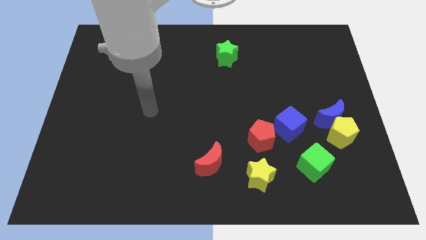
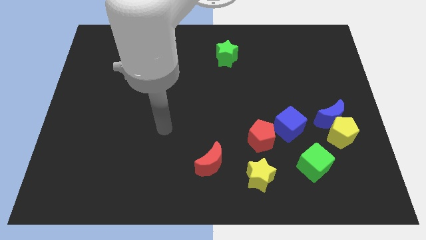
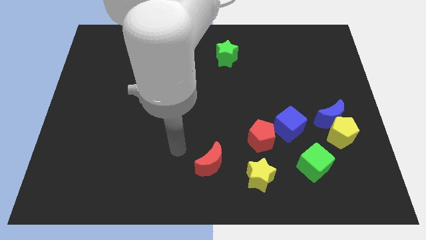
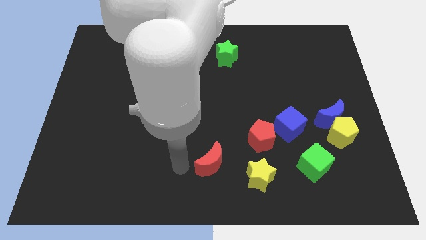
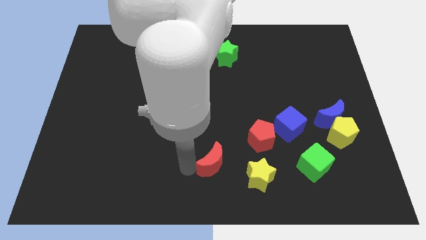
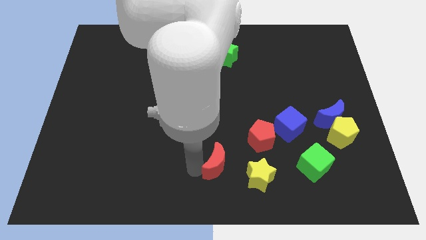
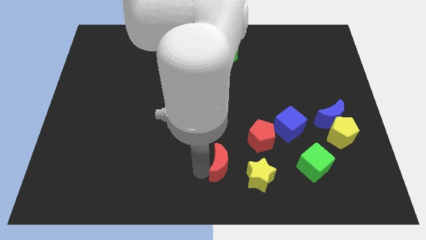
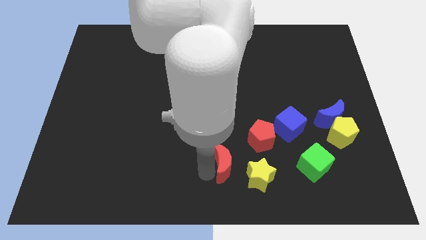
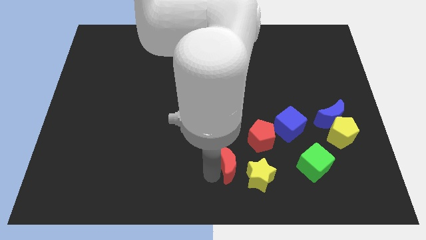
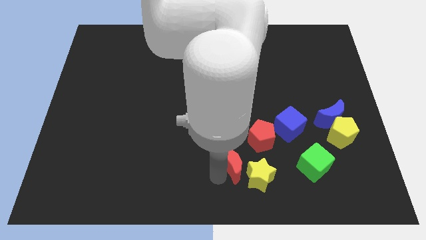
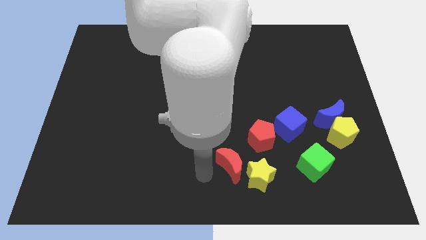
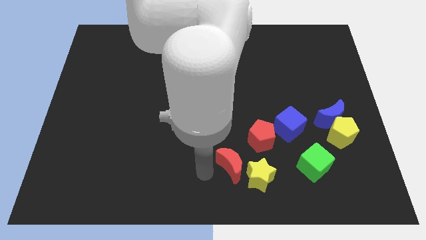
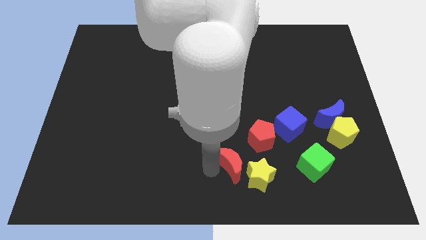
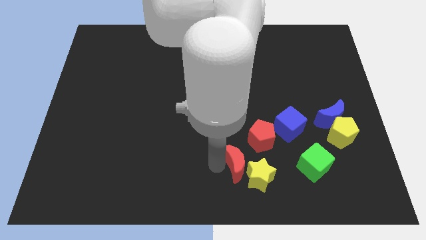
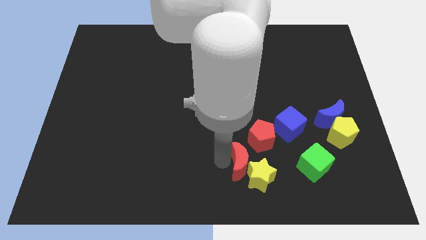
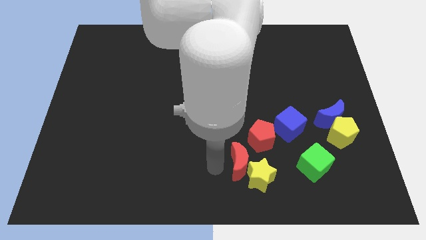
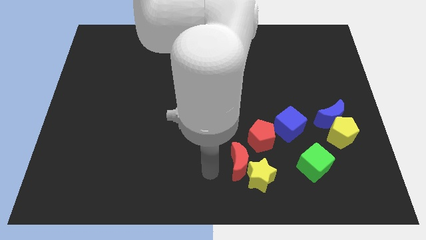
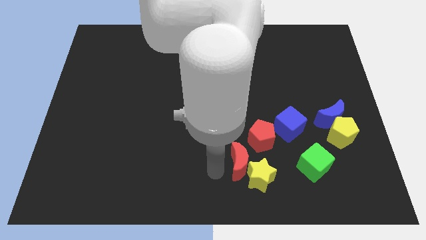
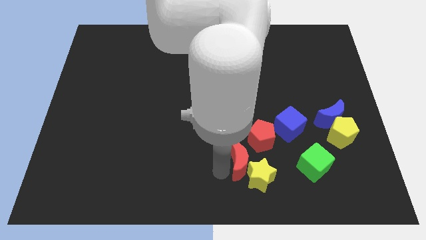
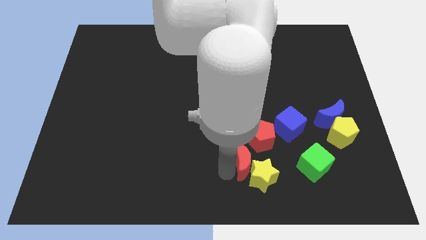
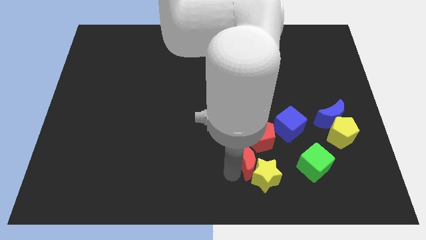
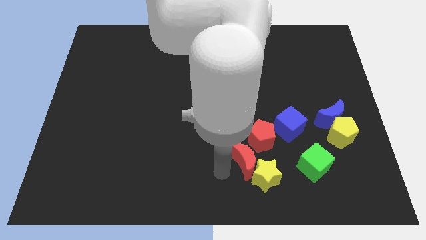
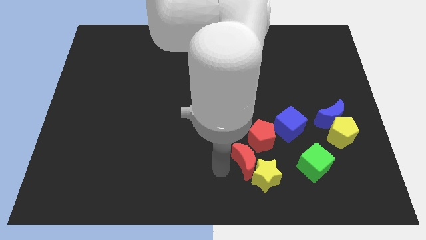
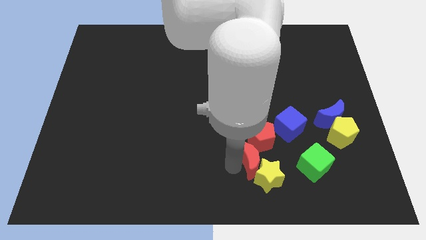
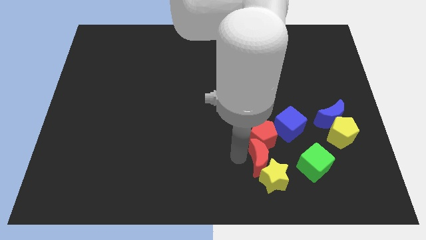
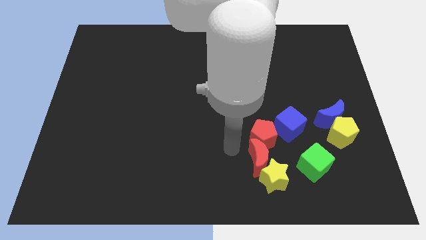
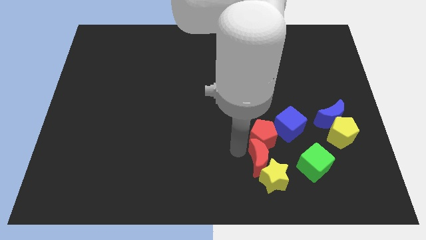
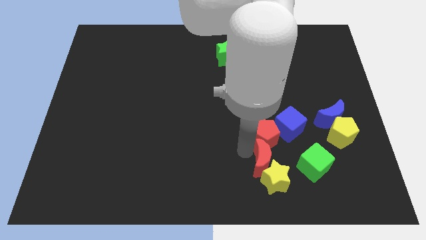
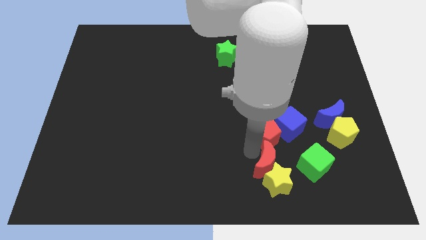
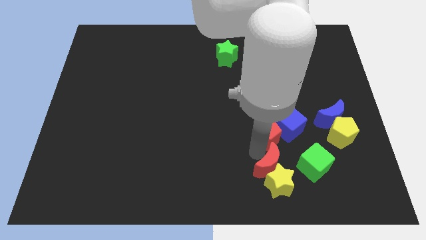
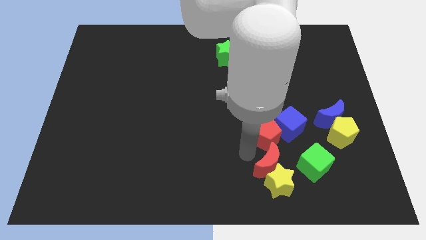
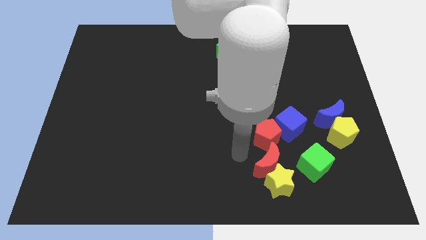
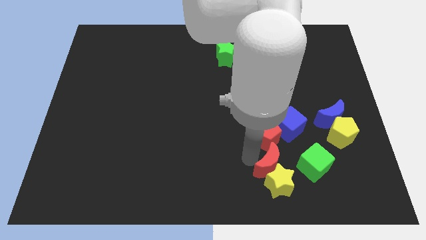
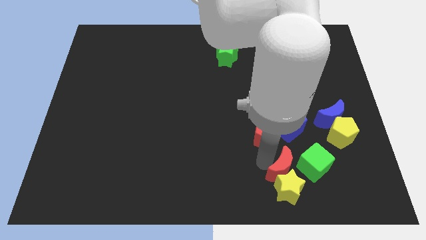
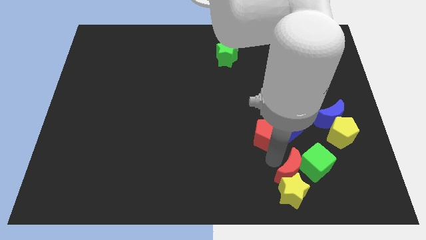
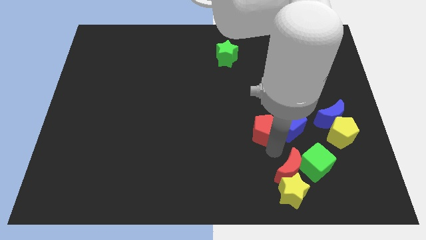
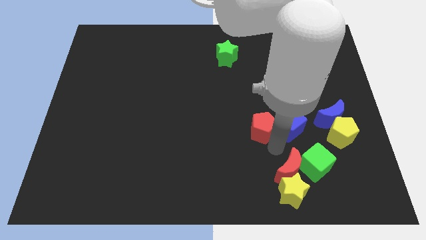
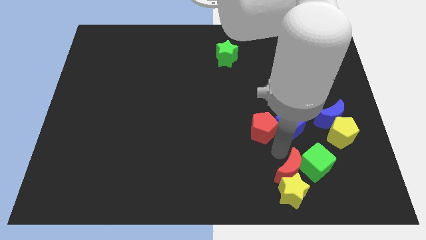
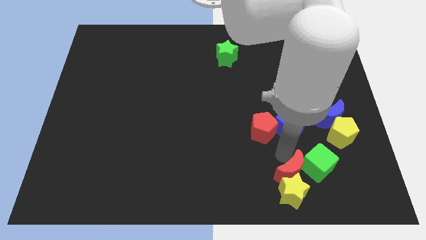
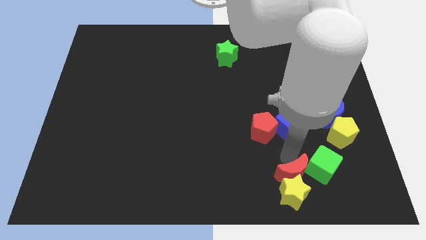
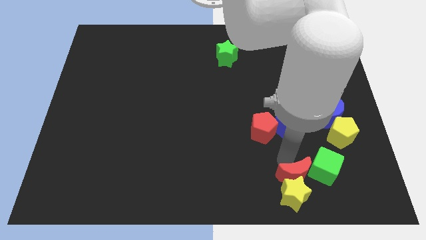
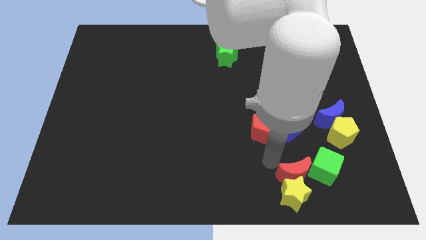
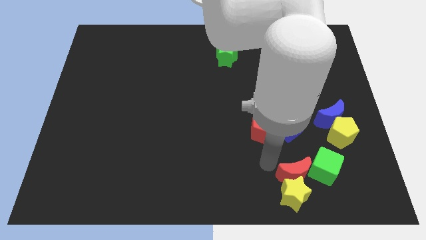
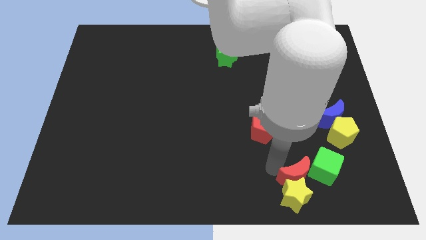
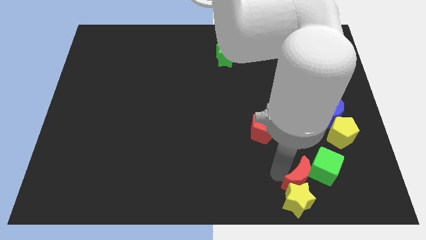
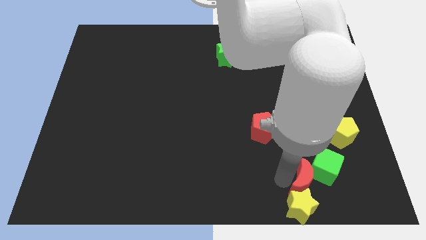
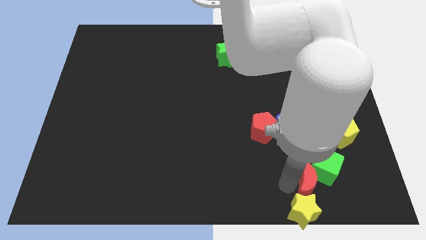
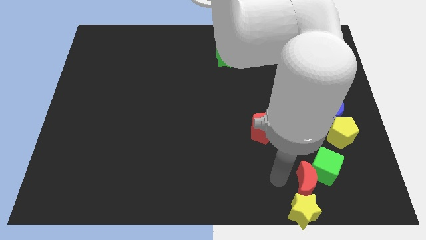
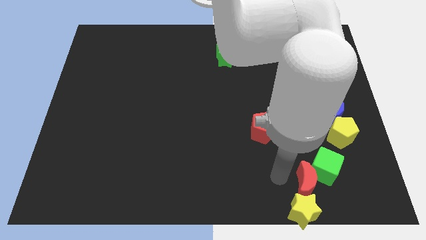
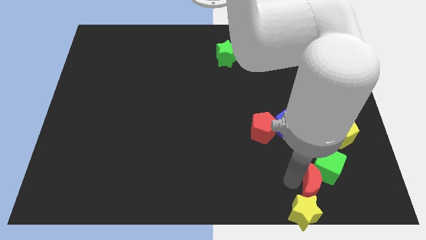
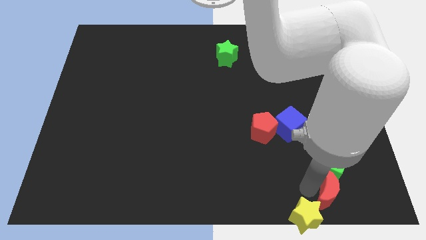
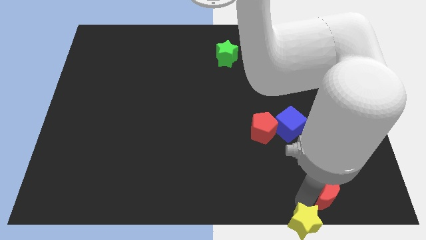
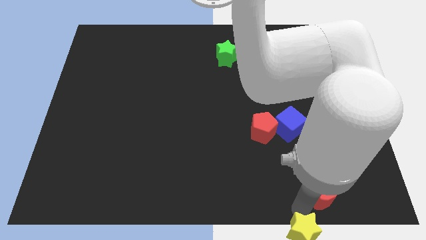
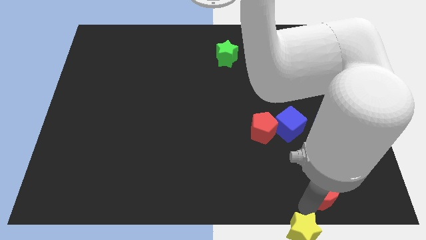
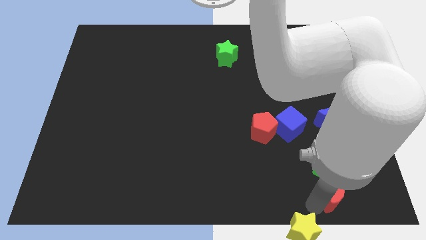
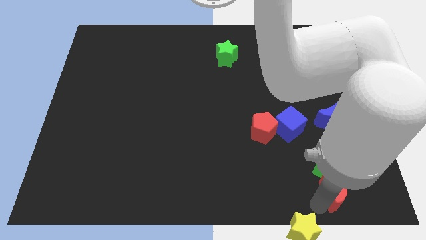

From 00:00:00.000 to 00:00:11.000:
put the red moon to the bottom of the yellow pentagon

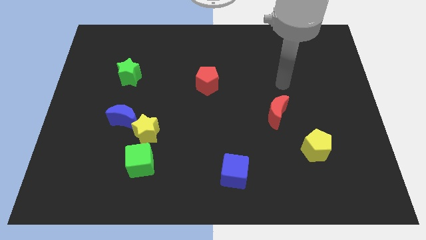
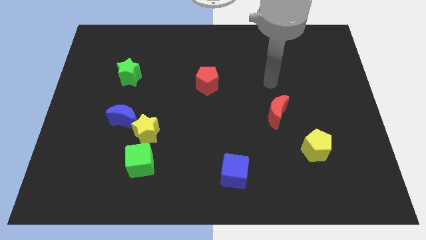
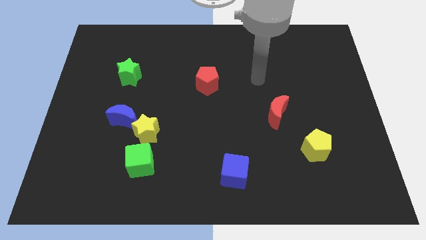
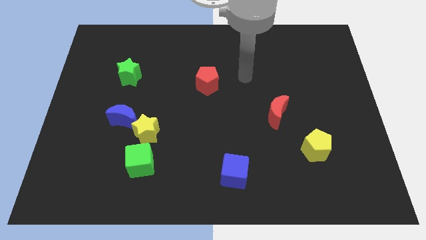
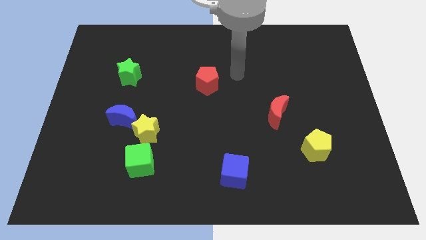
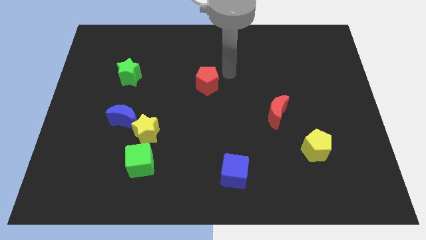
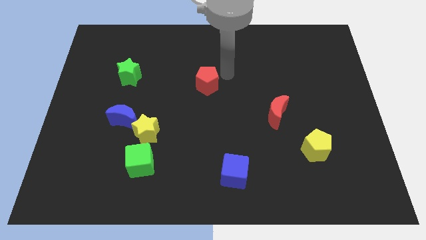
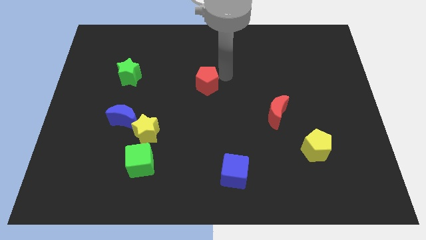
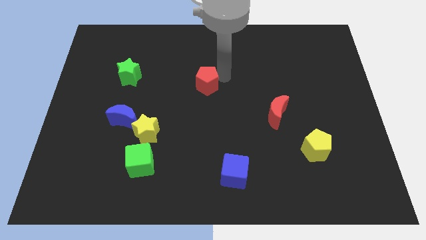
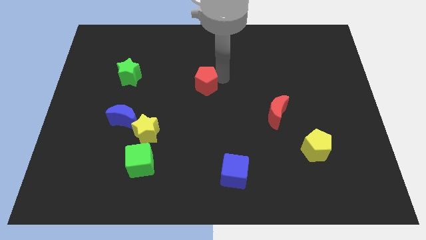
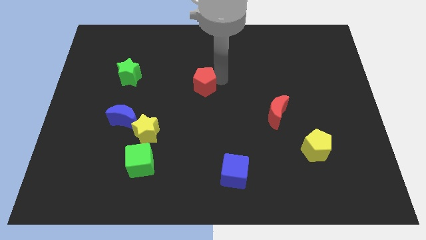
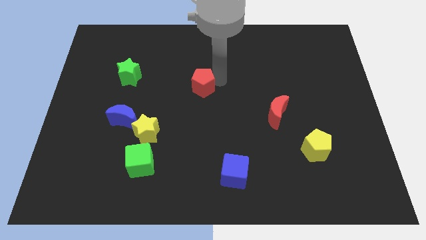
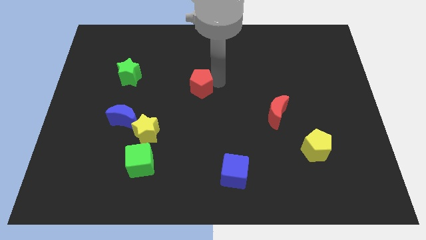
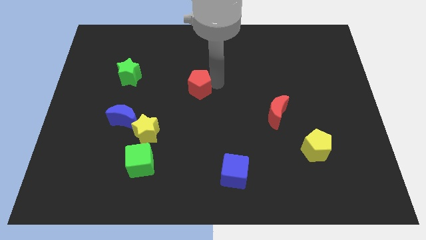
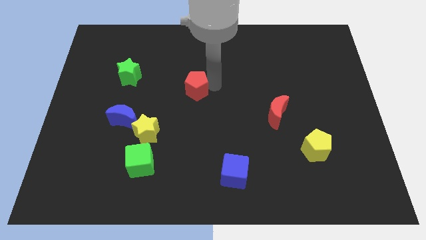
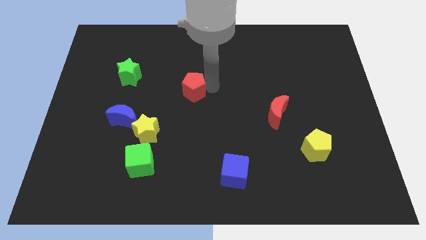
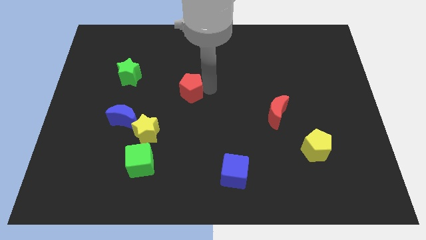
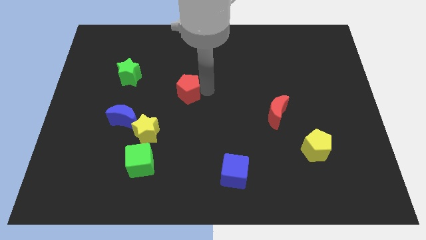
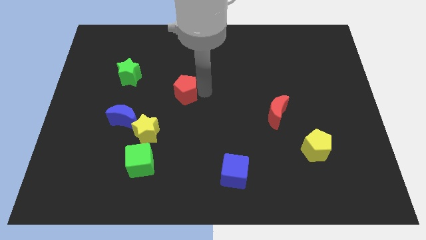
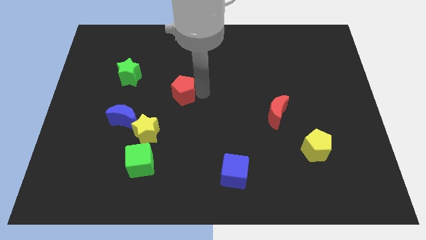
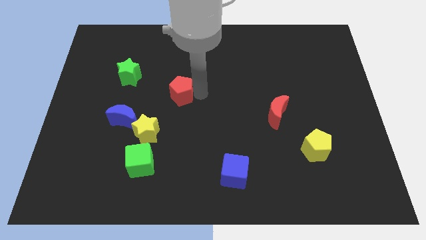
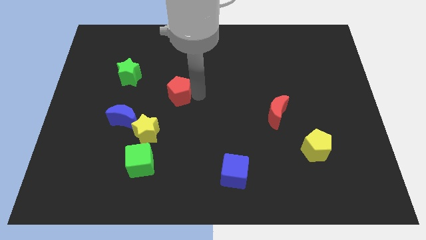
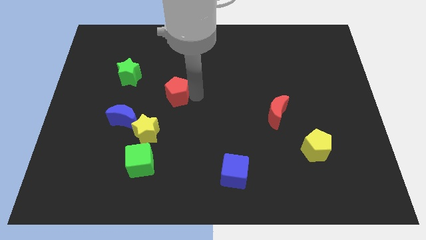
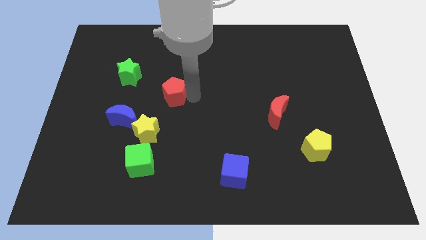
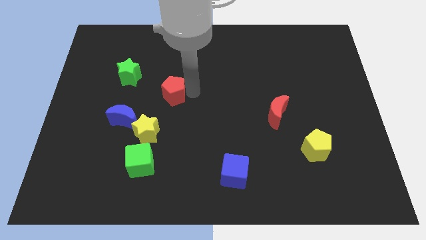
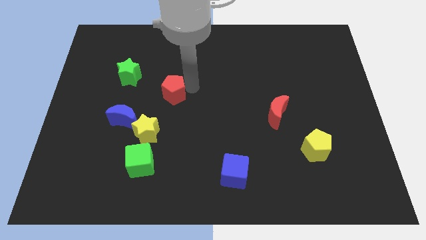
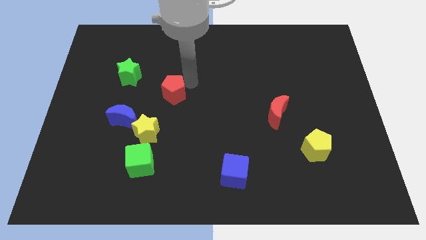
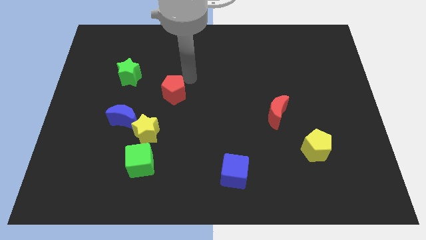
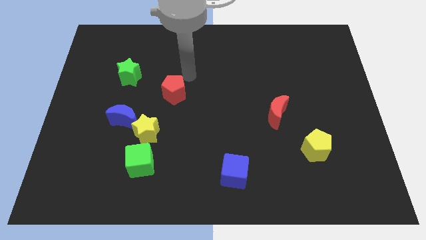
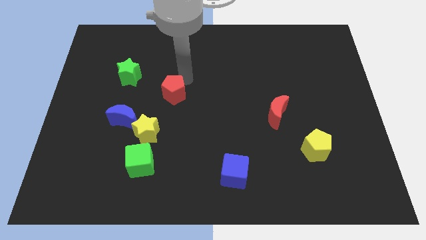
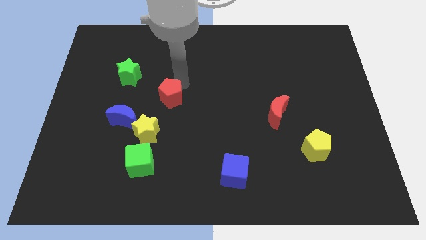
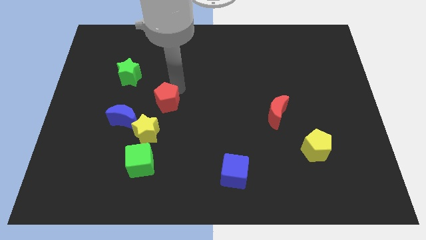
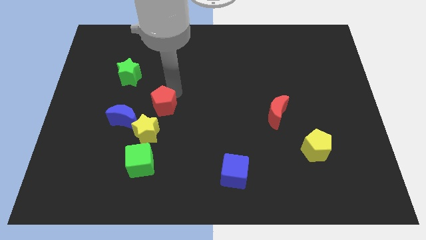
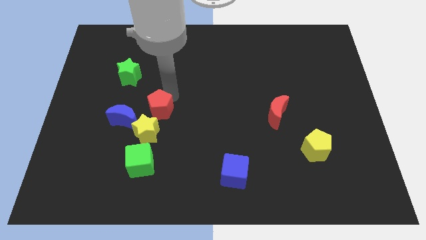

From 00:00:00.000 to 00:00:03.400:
move the red pentagon above the green cube
